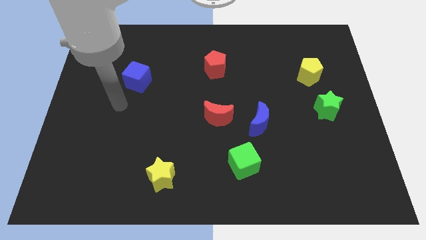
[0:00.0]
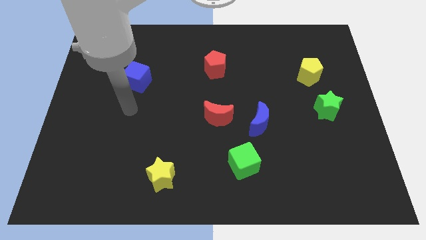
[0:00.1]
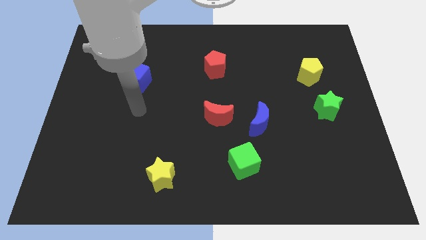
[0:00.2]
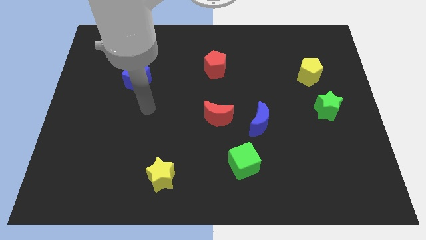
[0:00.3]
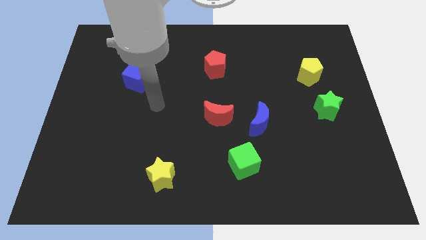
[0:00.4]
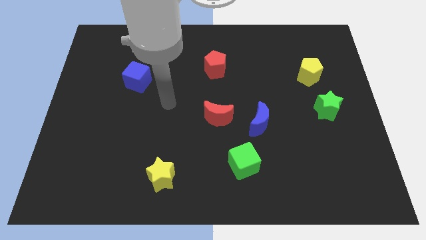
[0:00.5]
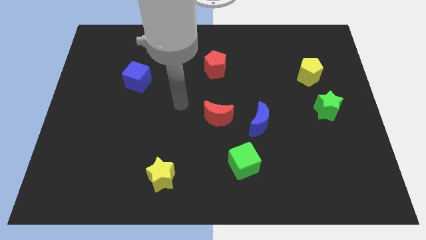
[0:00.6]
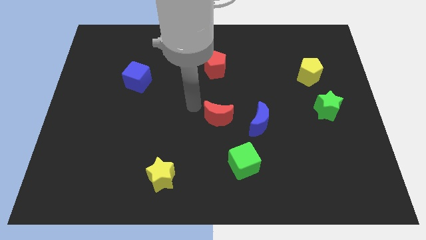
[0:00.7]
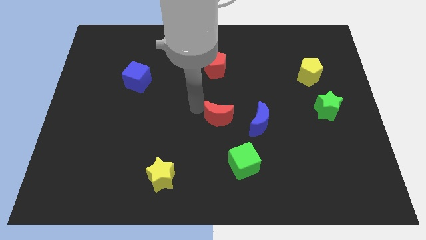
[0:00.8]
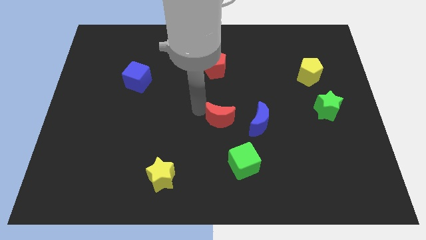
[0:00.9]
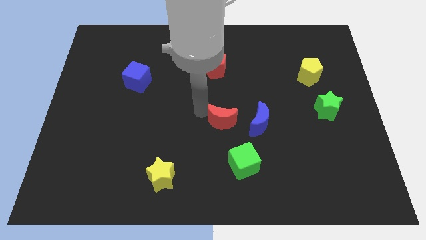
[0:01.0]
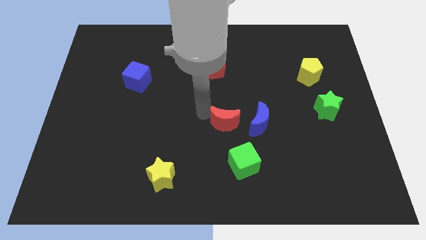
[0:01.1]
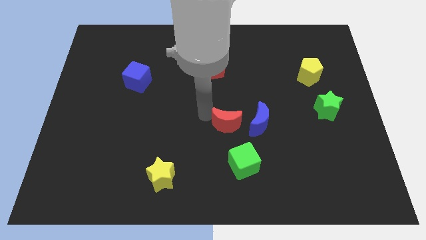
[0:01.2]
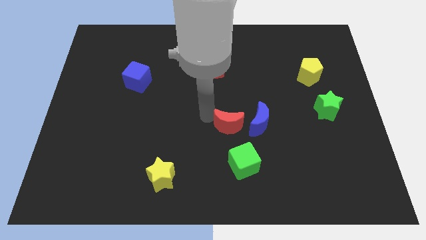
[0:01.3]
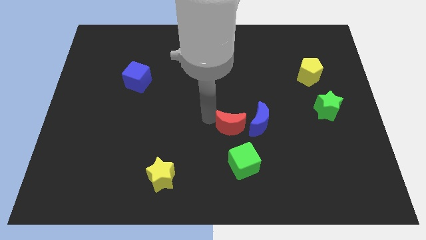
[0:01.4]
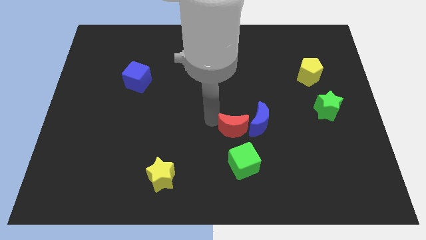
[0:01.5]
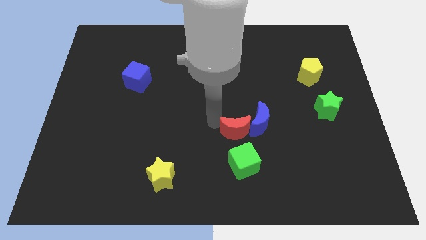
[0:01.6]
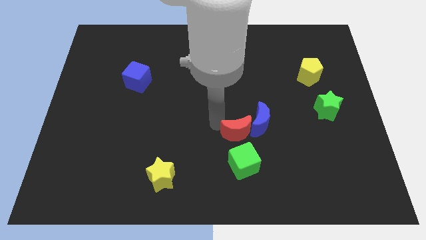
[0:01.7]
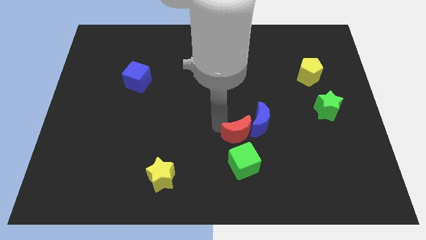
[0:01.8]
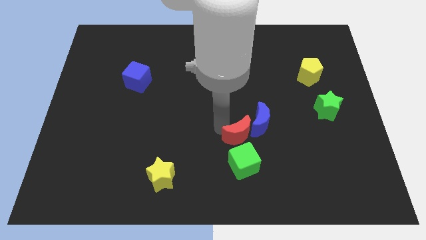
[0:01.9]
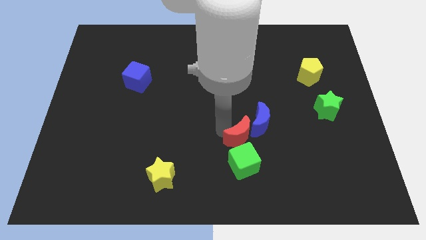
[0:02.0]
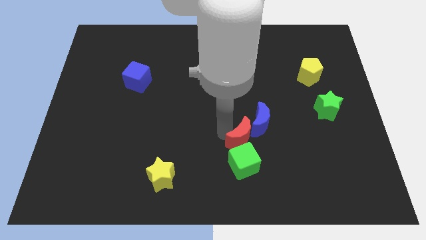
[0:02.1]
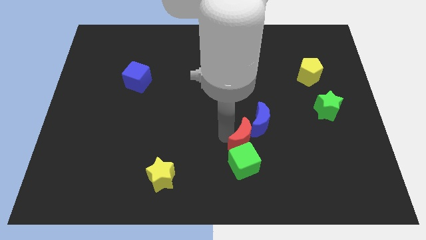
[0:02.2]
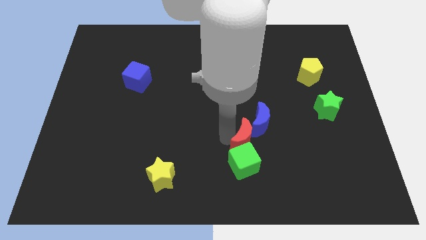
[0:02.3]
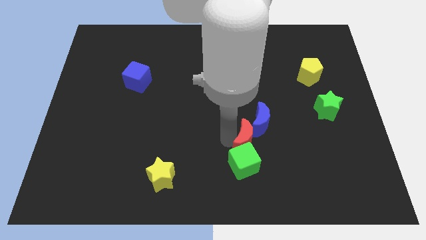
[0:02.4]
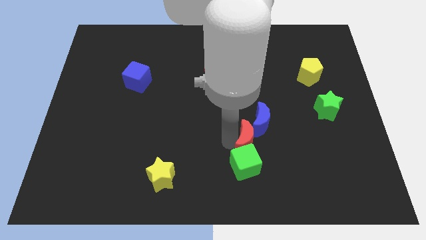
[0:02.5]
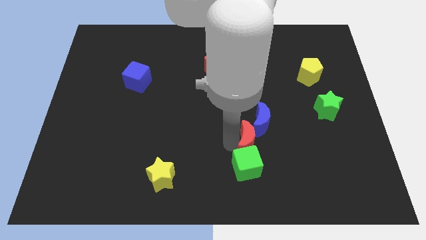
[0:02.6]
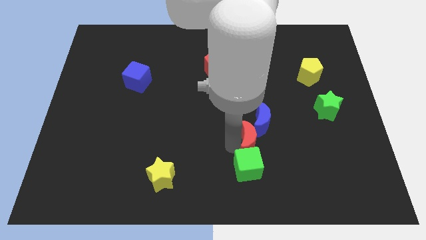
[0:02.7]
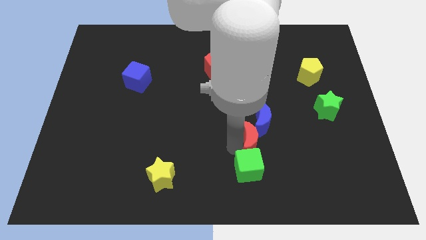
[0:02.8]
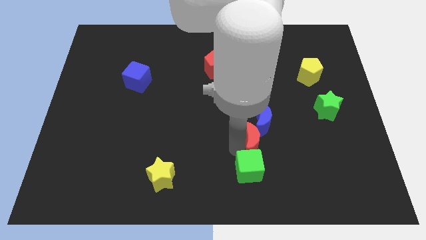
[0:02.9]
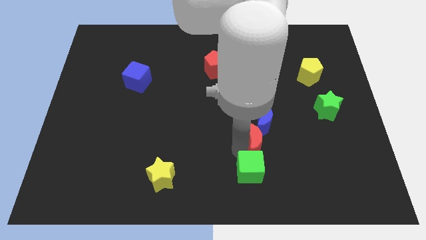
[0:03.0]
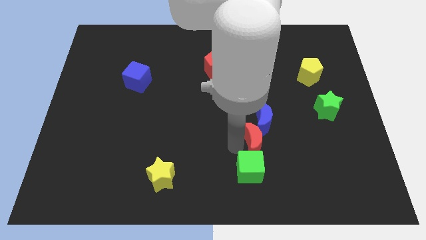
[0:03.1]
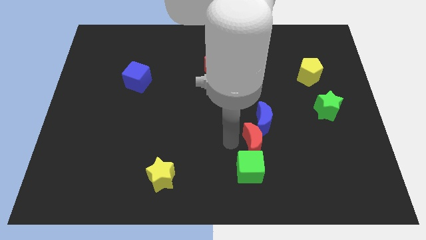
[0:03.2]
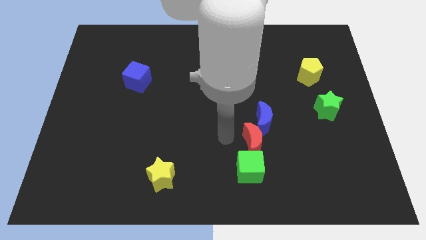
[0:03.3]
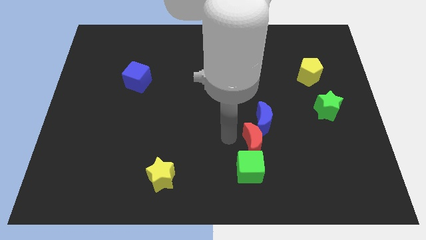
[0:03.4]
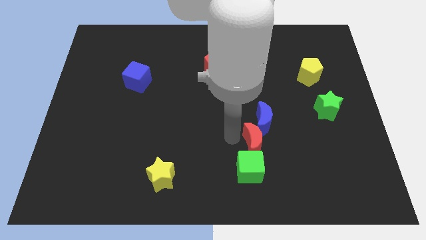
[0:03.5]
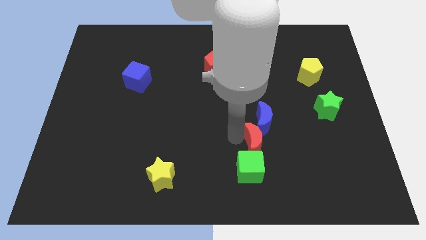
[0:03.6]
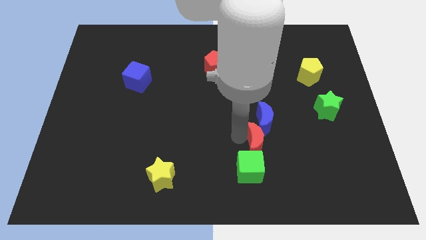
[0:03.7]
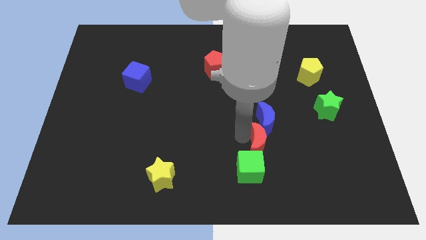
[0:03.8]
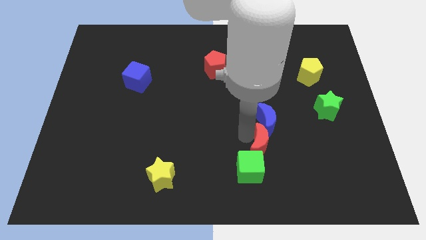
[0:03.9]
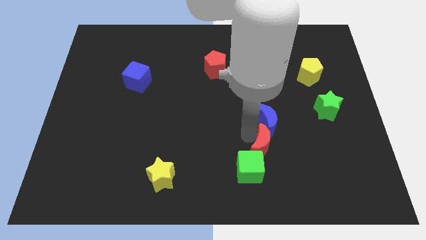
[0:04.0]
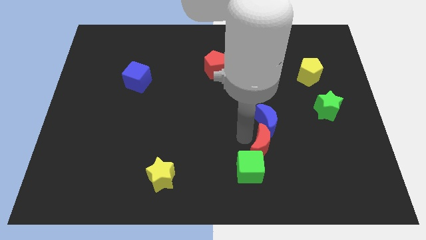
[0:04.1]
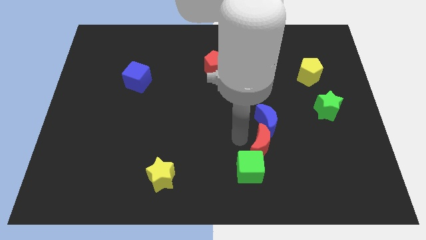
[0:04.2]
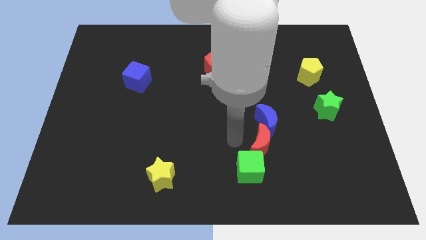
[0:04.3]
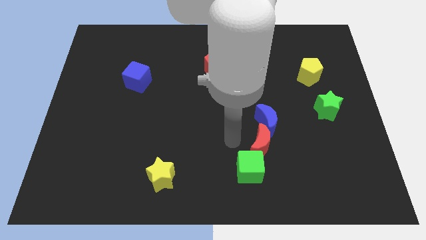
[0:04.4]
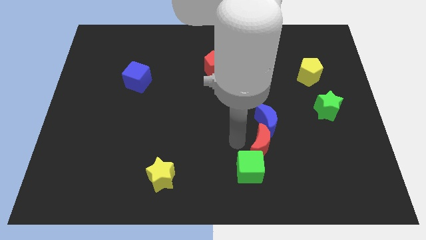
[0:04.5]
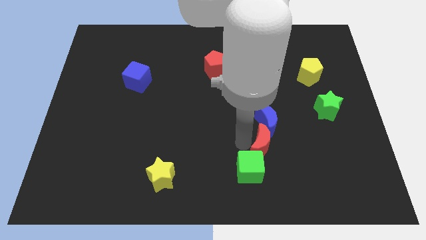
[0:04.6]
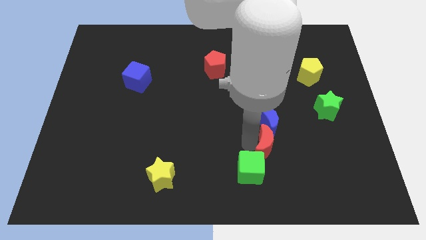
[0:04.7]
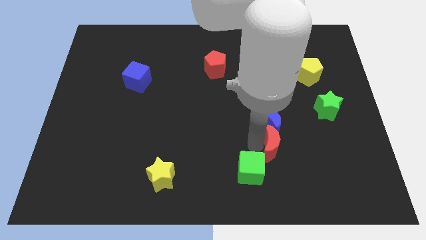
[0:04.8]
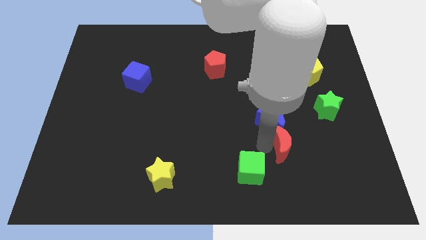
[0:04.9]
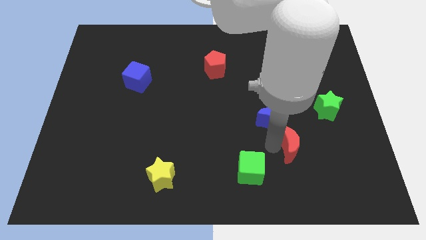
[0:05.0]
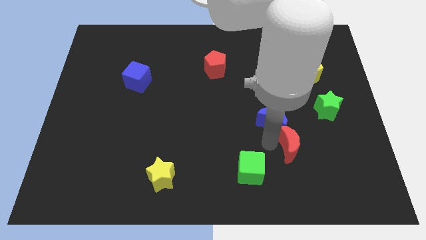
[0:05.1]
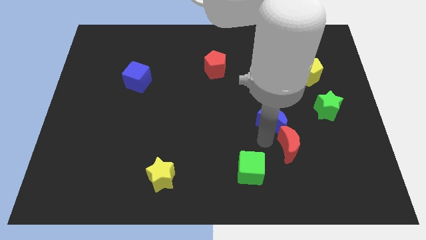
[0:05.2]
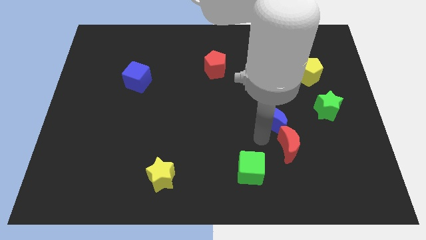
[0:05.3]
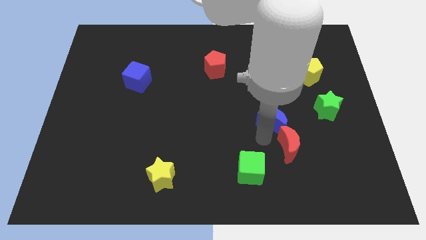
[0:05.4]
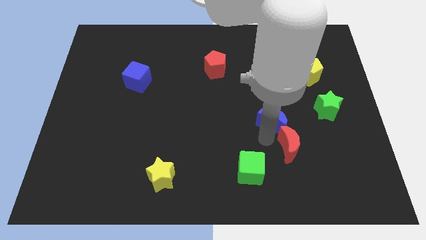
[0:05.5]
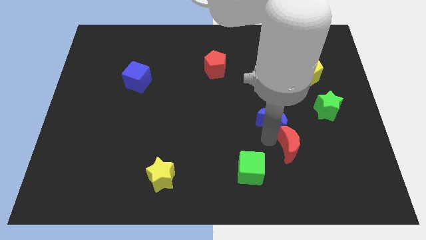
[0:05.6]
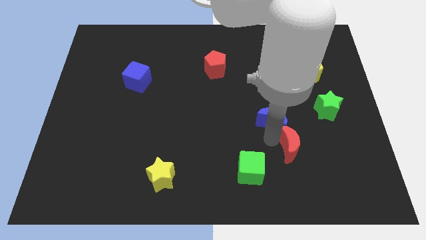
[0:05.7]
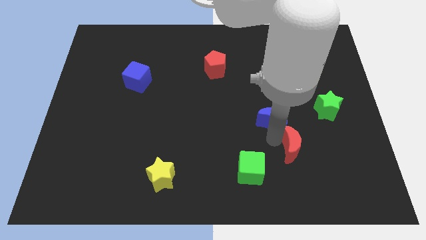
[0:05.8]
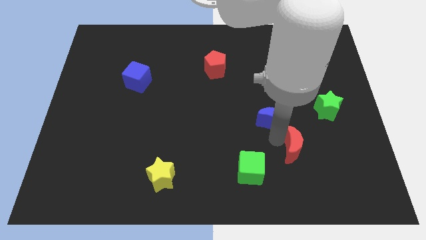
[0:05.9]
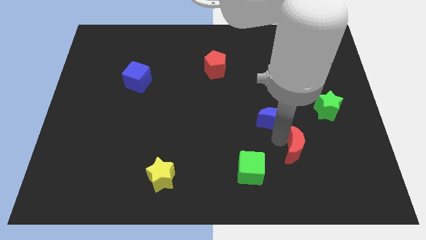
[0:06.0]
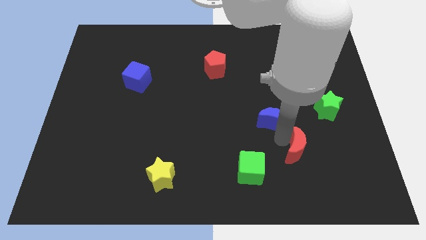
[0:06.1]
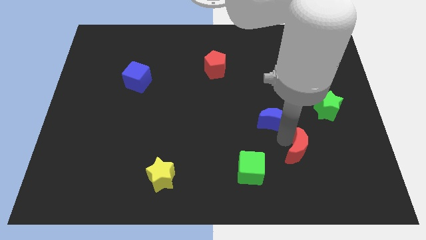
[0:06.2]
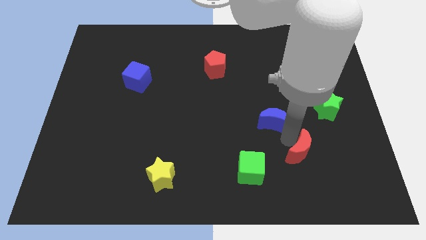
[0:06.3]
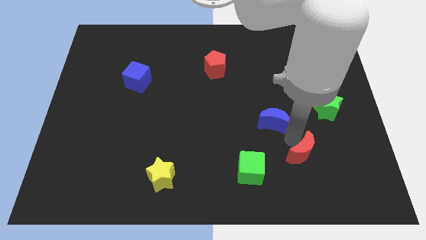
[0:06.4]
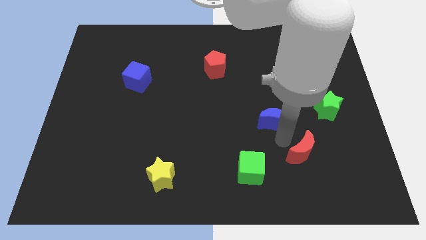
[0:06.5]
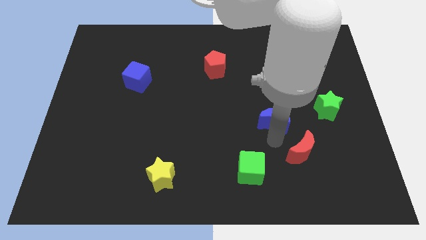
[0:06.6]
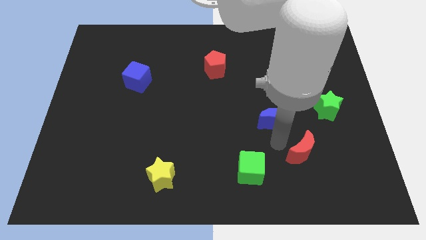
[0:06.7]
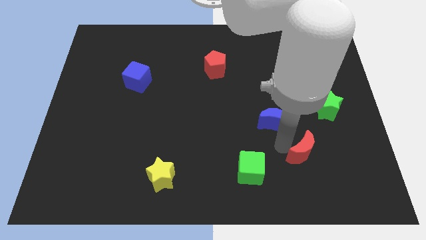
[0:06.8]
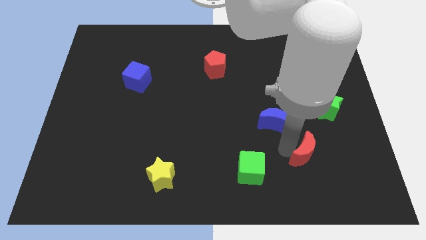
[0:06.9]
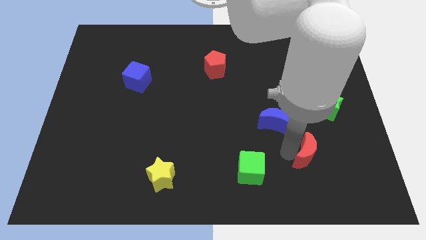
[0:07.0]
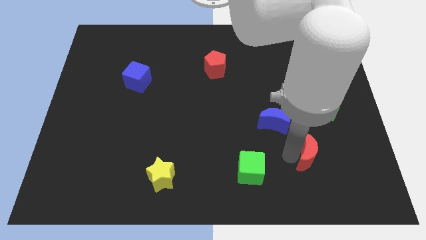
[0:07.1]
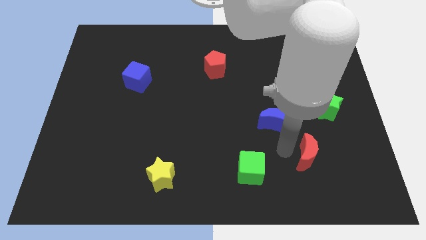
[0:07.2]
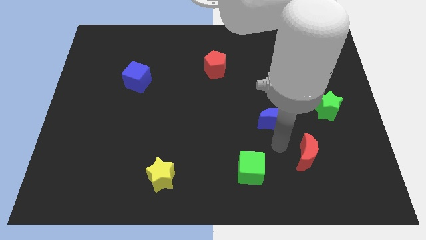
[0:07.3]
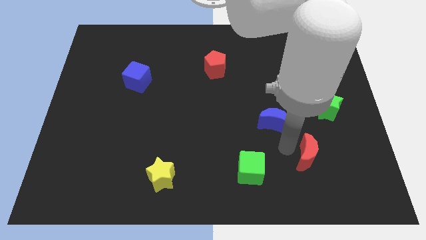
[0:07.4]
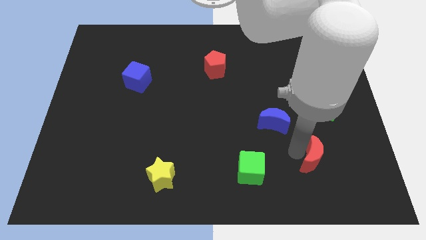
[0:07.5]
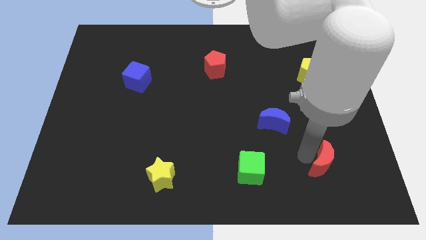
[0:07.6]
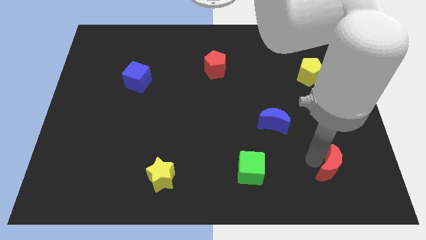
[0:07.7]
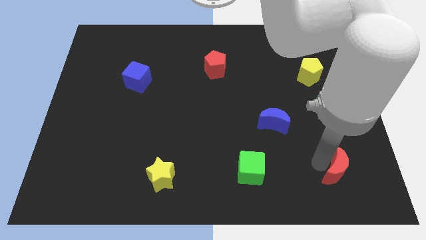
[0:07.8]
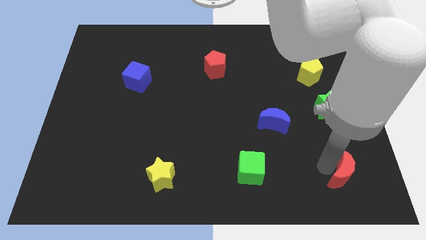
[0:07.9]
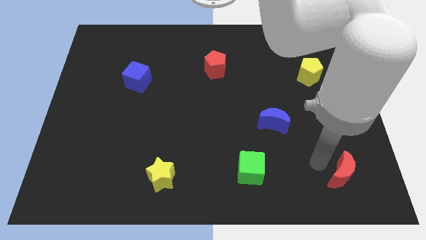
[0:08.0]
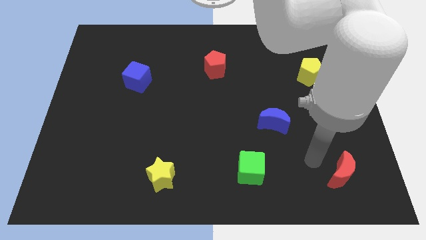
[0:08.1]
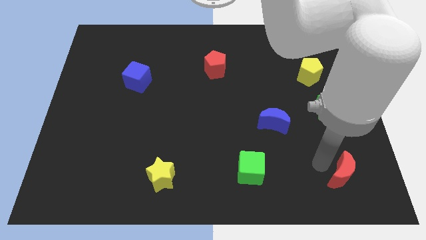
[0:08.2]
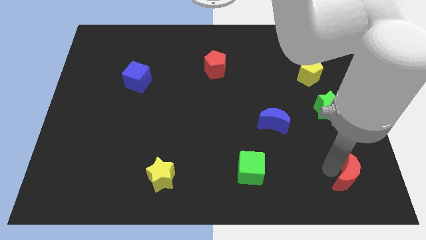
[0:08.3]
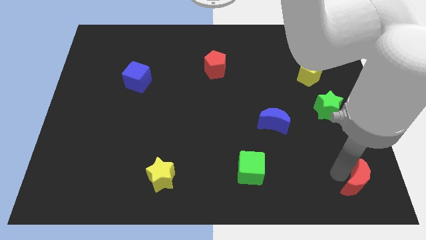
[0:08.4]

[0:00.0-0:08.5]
push the red moon to the lower right corner
